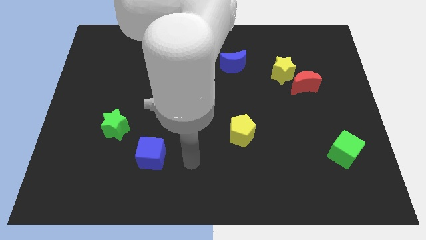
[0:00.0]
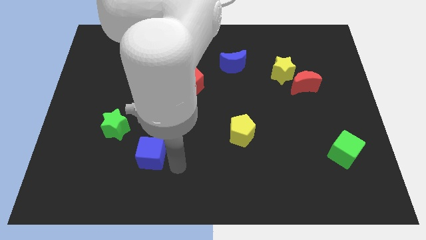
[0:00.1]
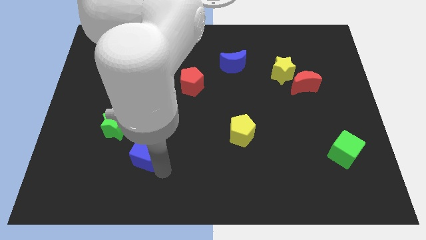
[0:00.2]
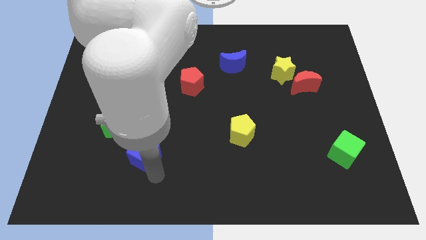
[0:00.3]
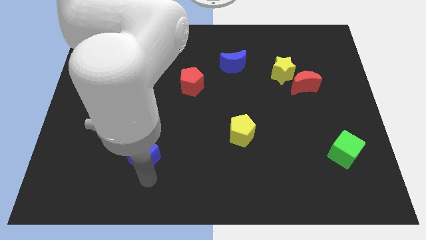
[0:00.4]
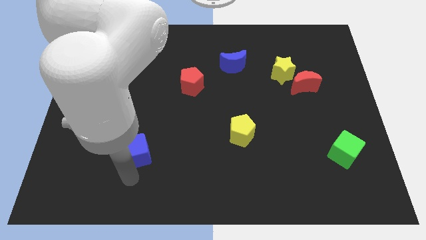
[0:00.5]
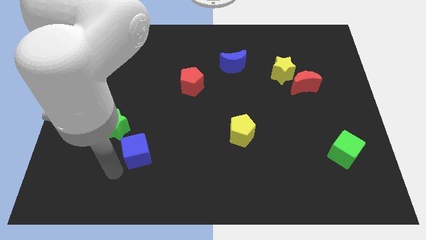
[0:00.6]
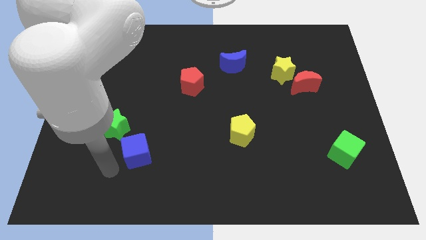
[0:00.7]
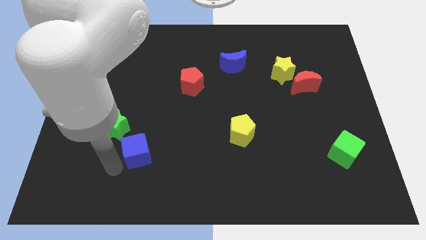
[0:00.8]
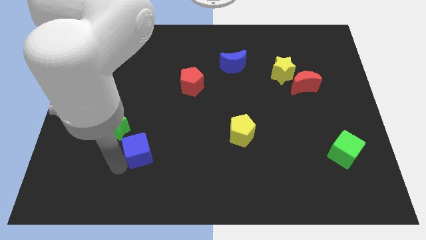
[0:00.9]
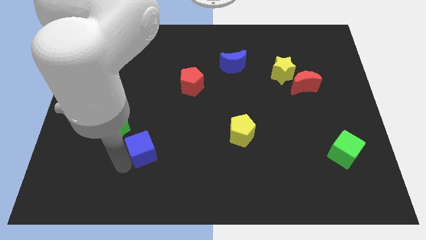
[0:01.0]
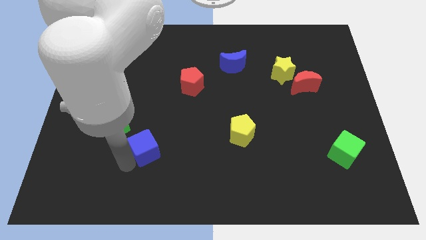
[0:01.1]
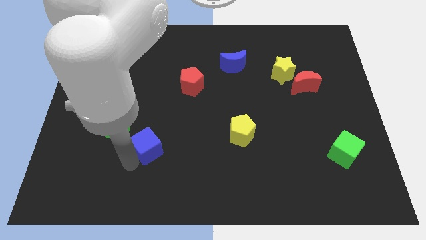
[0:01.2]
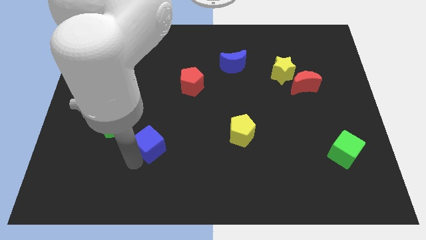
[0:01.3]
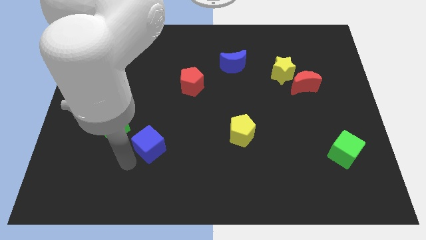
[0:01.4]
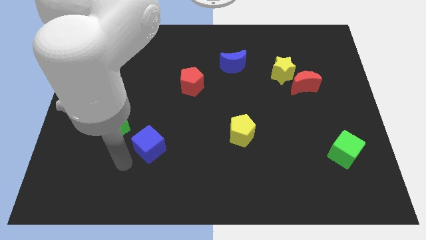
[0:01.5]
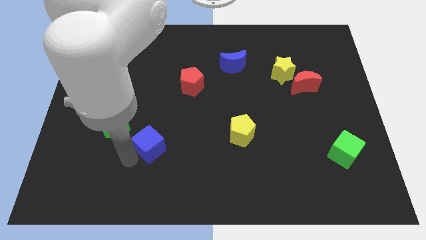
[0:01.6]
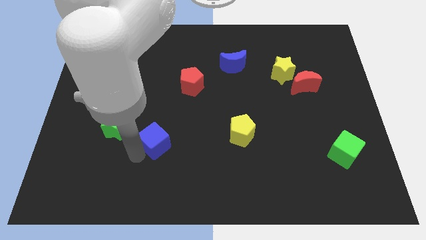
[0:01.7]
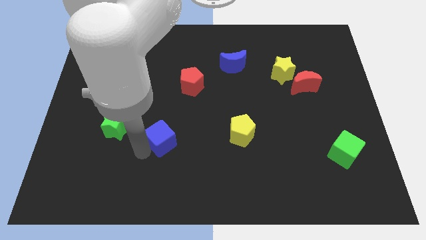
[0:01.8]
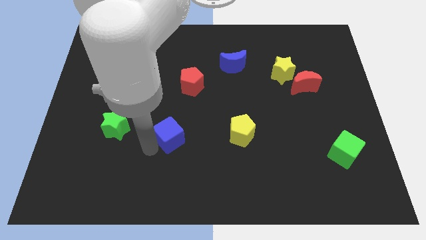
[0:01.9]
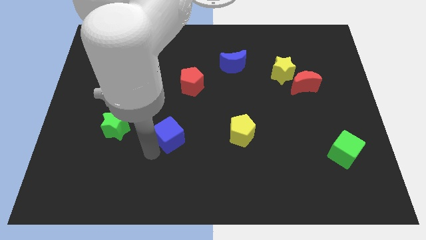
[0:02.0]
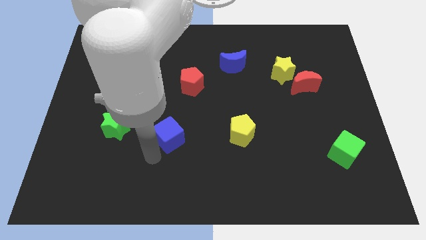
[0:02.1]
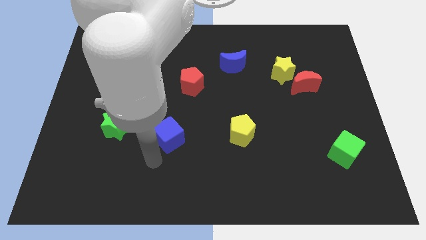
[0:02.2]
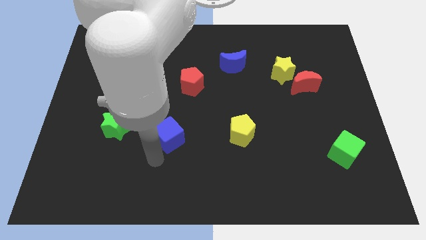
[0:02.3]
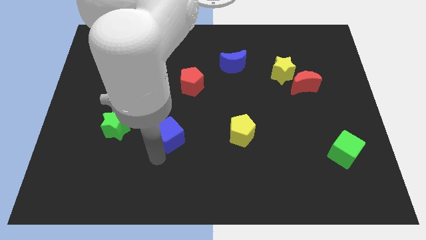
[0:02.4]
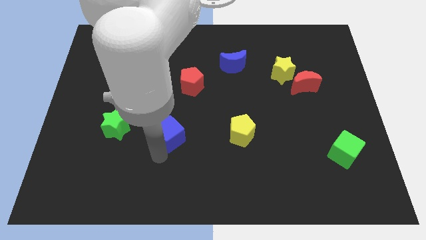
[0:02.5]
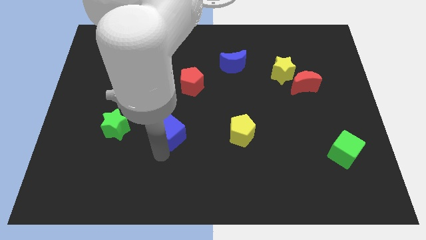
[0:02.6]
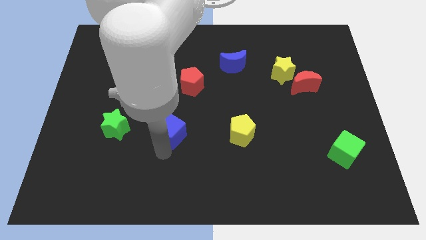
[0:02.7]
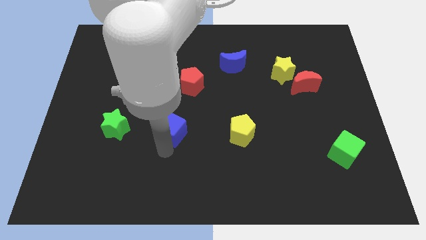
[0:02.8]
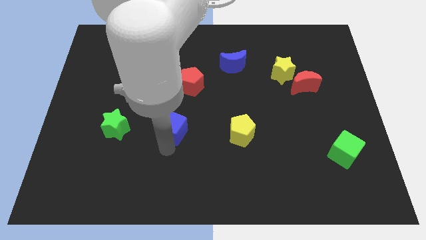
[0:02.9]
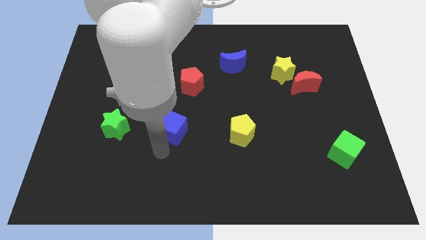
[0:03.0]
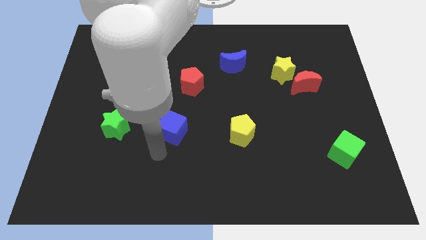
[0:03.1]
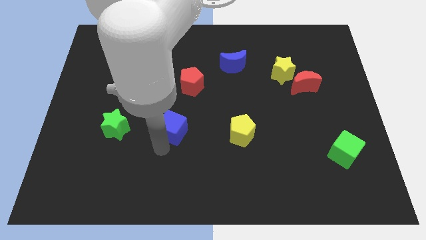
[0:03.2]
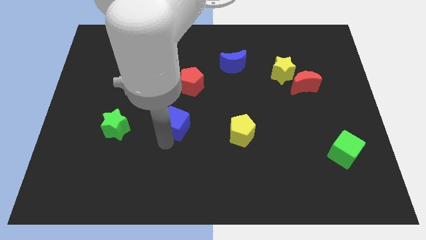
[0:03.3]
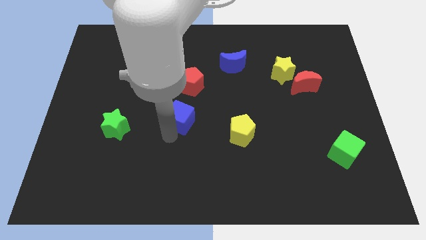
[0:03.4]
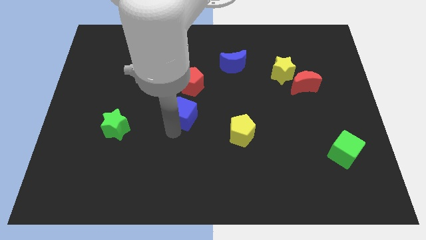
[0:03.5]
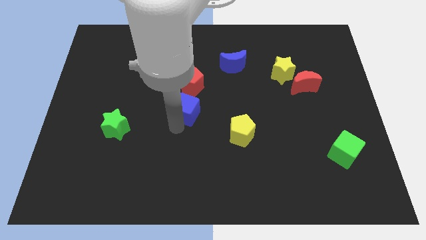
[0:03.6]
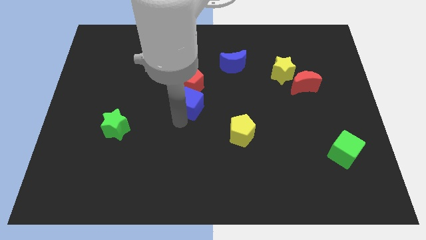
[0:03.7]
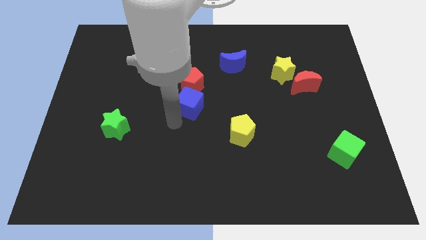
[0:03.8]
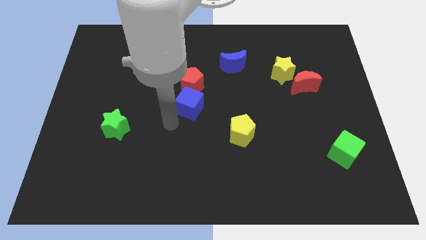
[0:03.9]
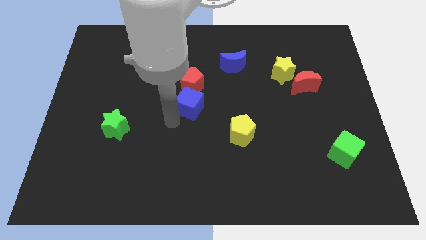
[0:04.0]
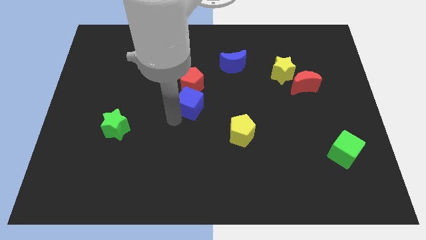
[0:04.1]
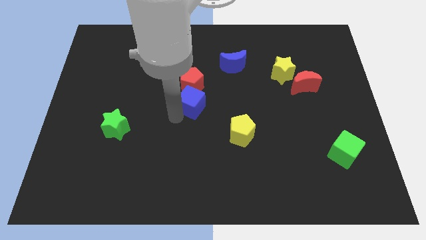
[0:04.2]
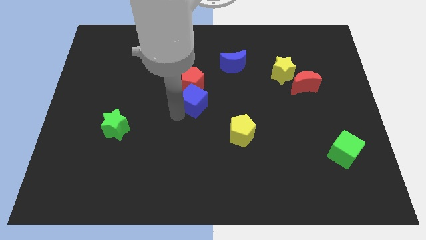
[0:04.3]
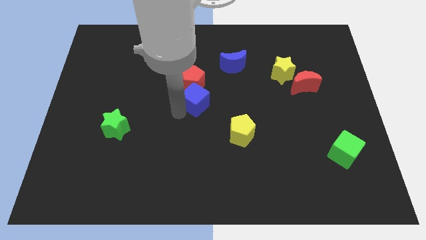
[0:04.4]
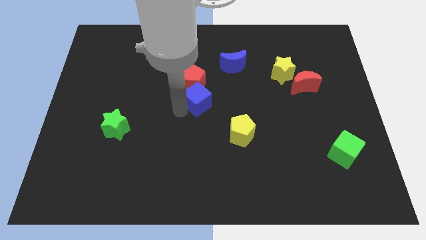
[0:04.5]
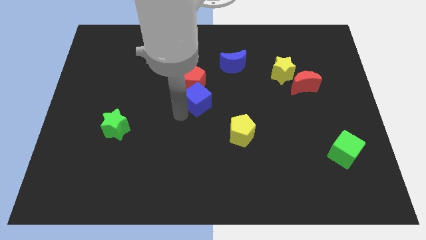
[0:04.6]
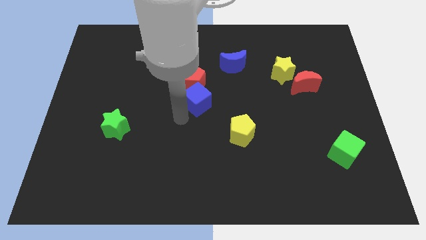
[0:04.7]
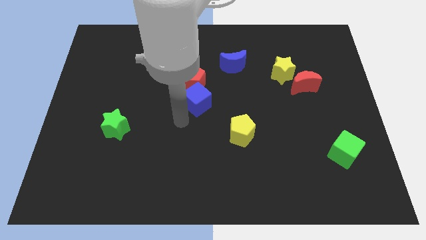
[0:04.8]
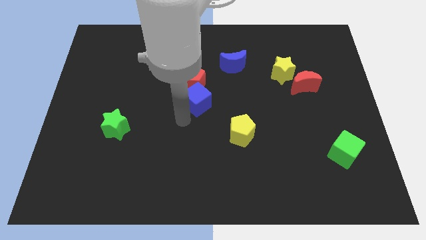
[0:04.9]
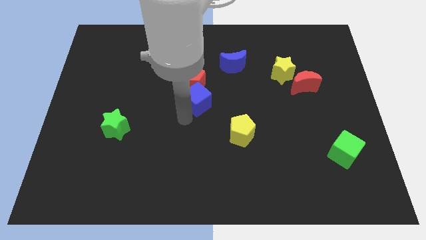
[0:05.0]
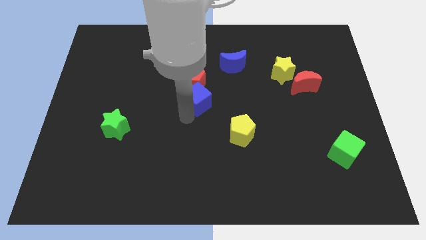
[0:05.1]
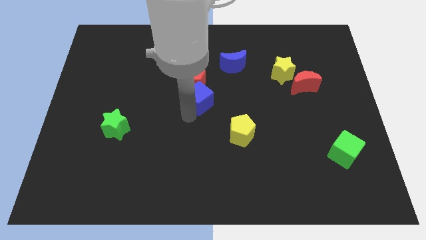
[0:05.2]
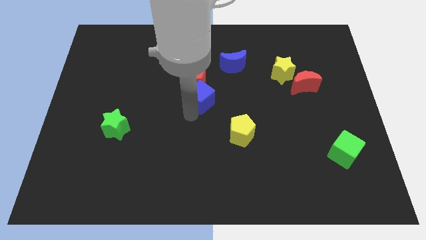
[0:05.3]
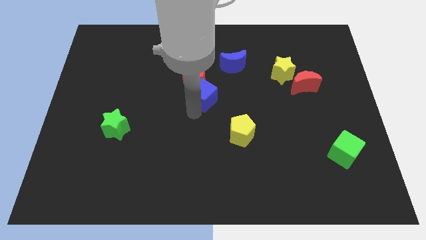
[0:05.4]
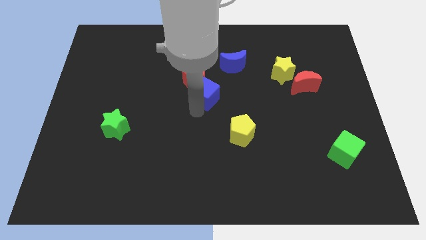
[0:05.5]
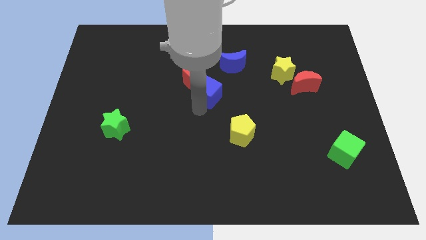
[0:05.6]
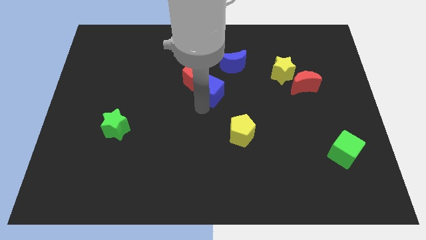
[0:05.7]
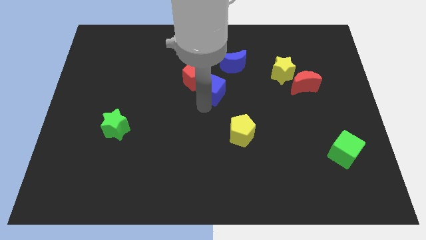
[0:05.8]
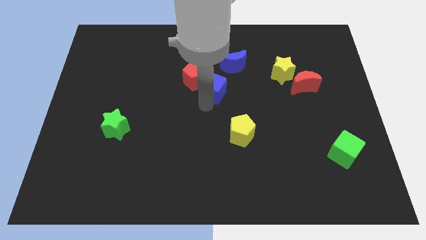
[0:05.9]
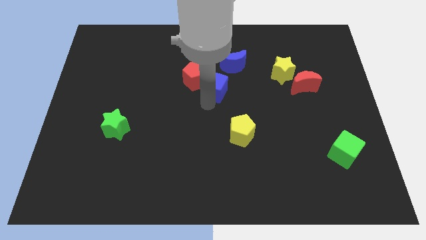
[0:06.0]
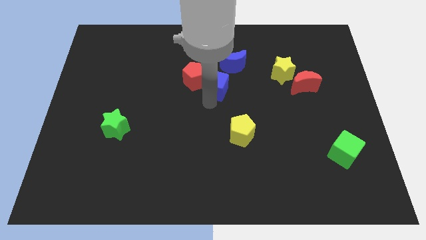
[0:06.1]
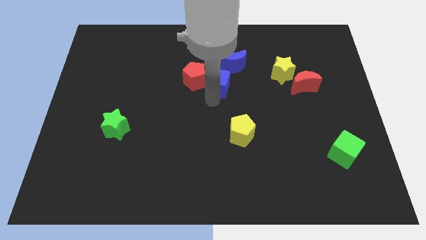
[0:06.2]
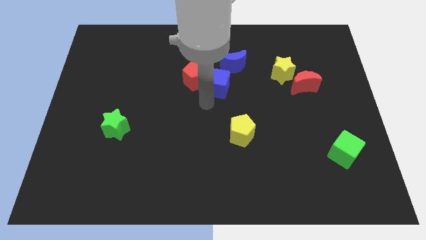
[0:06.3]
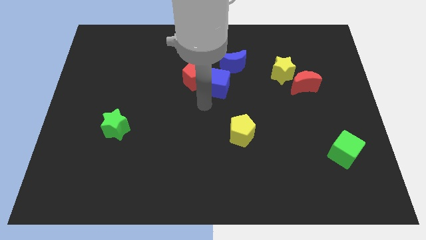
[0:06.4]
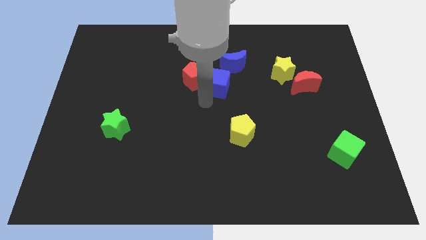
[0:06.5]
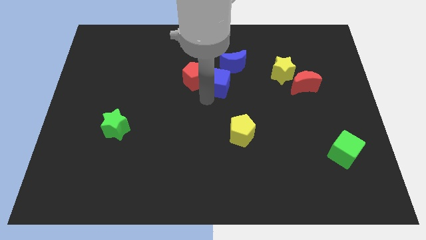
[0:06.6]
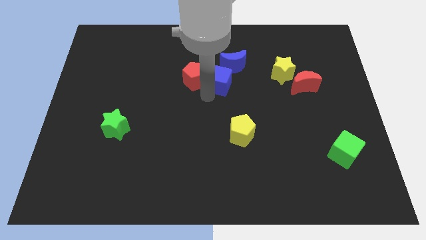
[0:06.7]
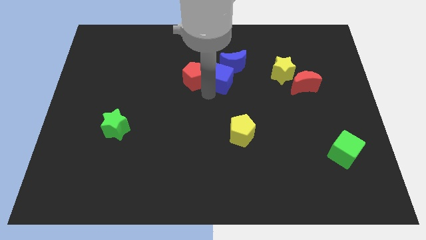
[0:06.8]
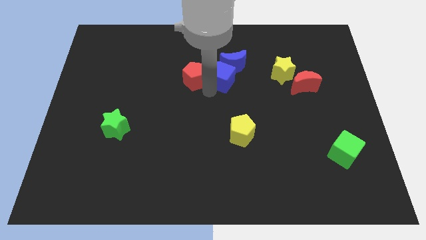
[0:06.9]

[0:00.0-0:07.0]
move the blue cube next to the blue moon
